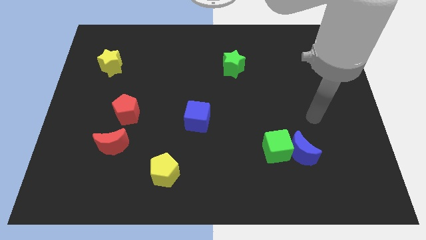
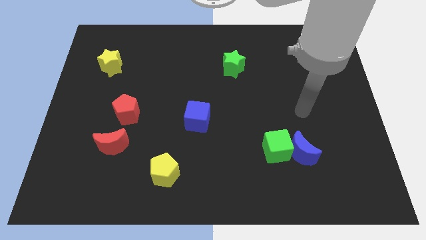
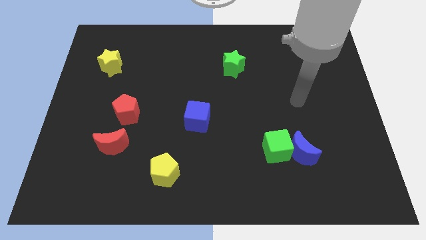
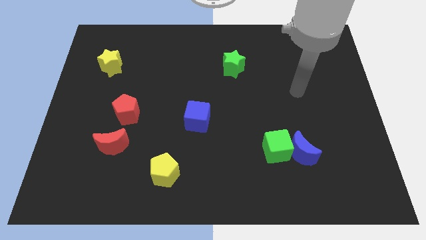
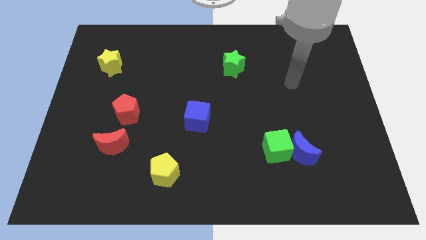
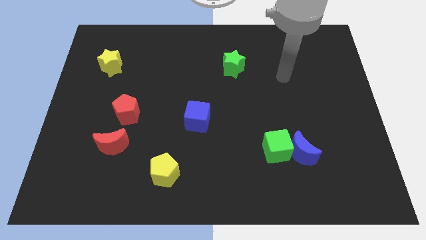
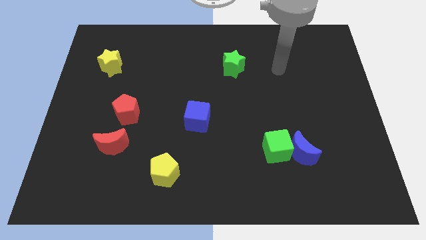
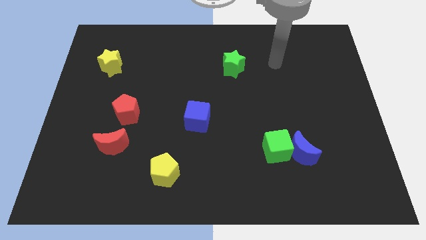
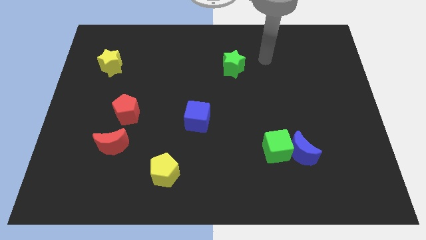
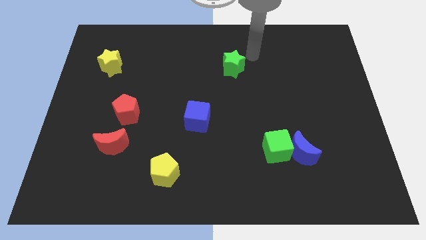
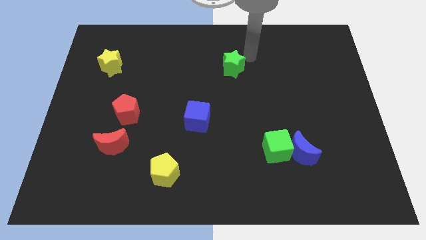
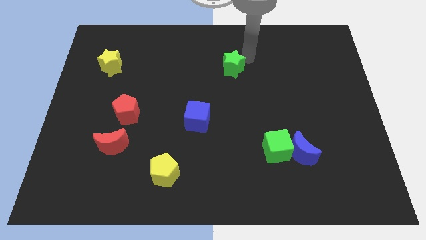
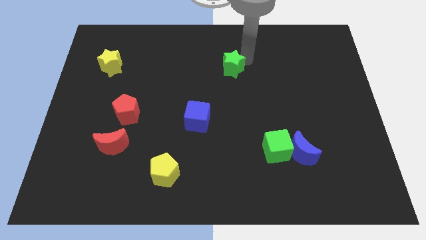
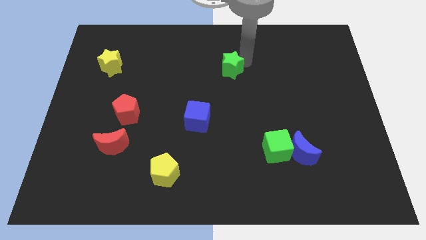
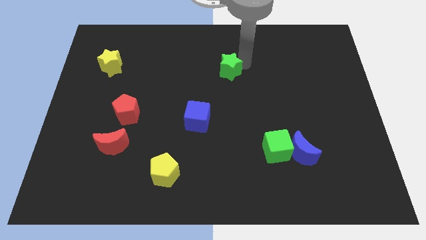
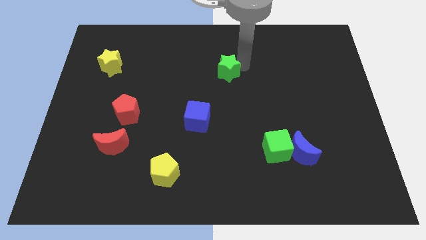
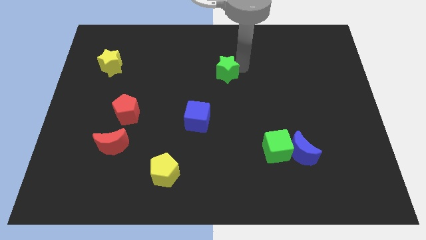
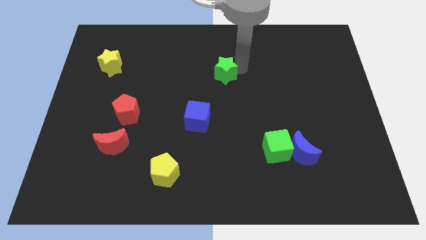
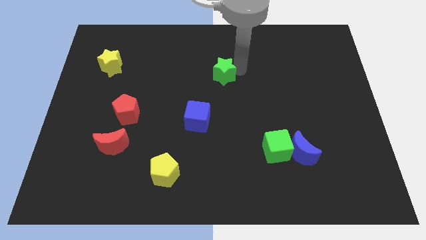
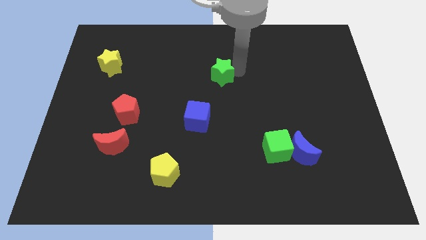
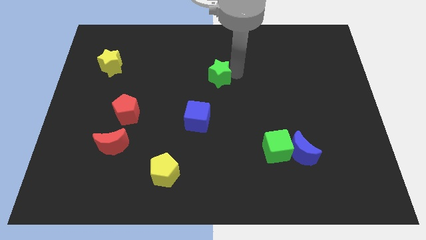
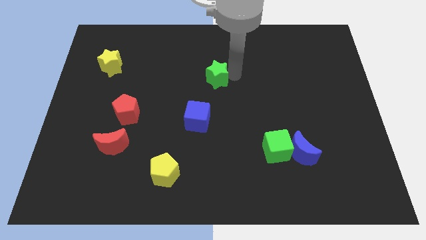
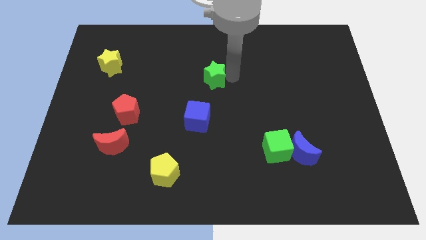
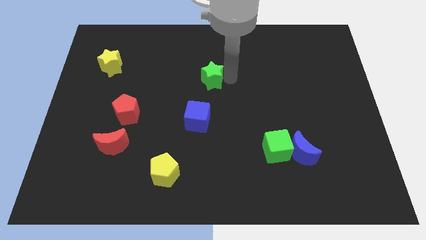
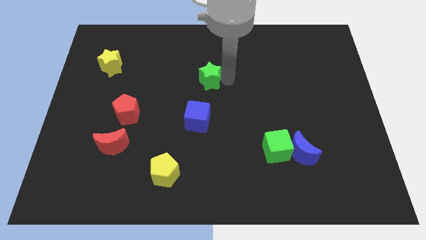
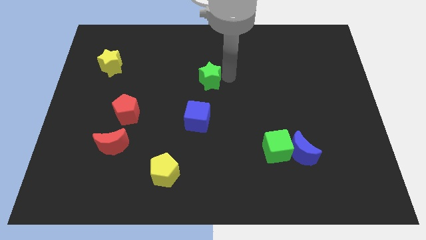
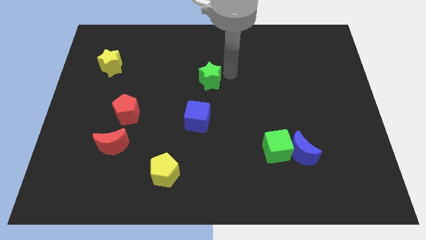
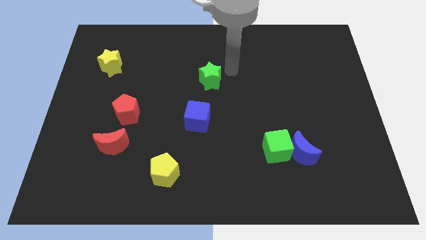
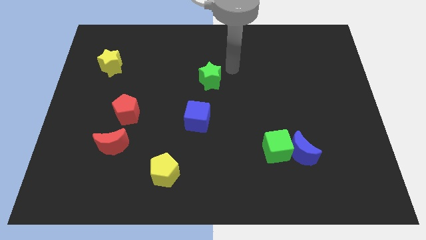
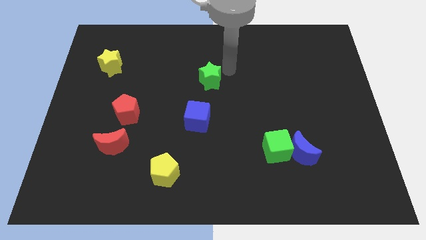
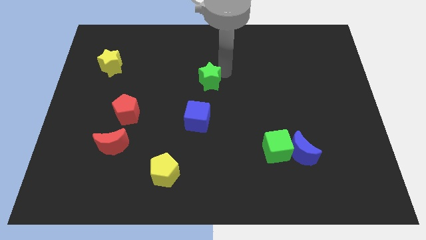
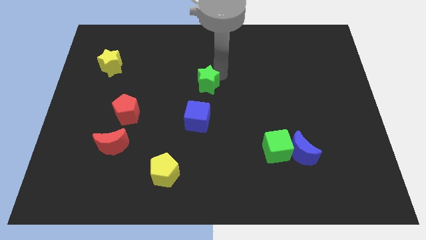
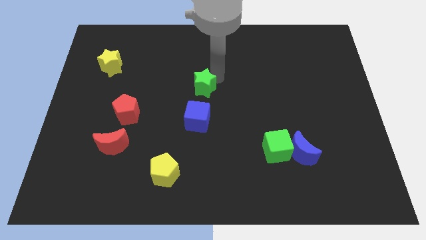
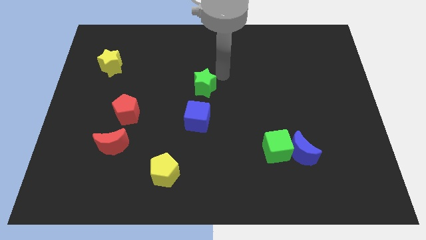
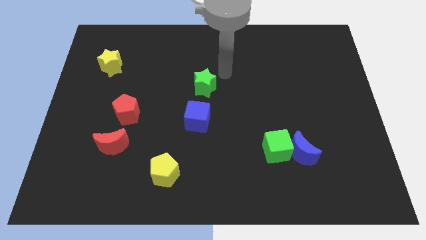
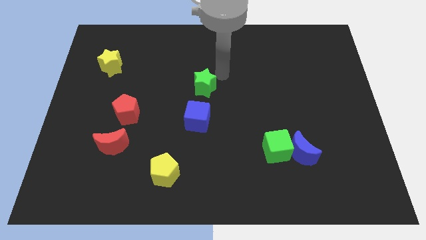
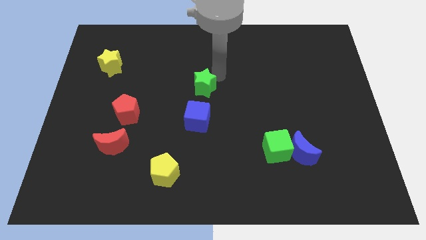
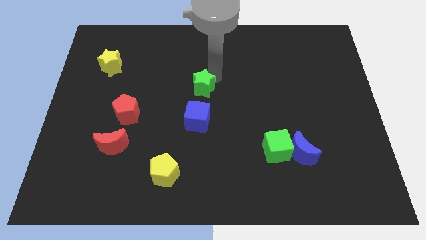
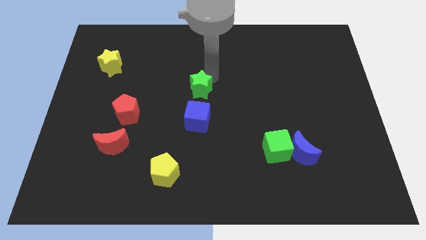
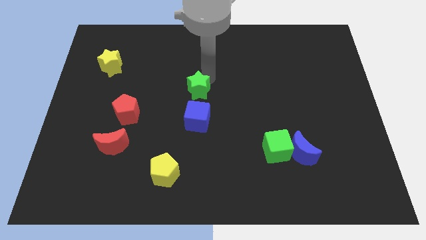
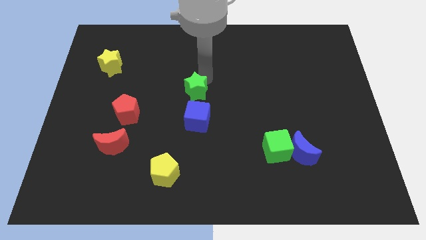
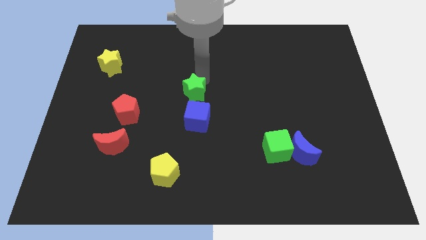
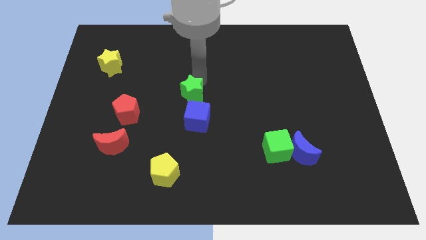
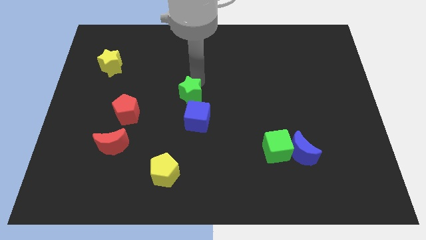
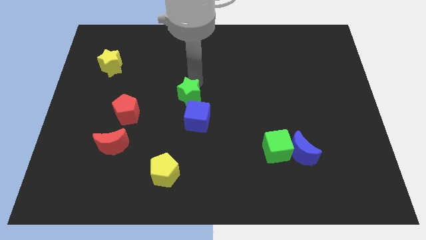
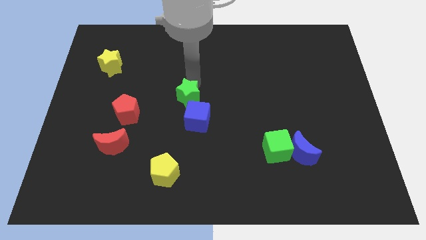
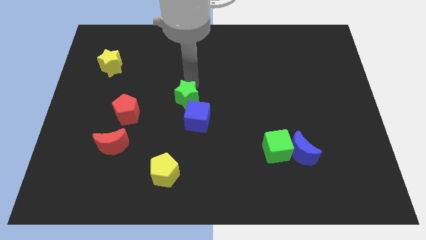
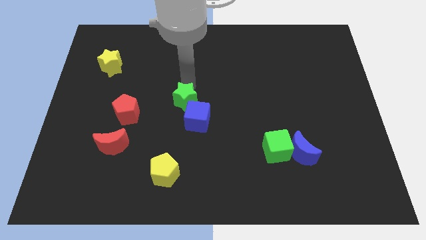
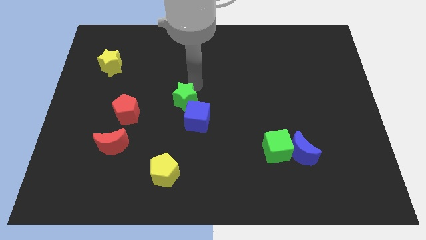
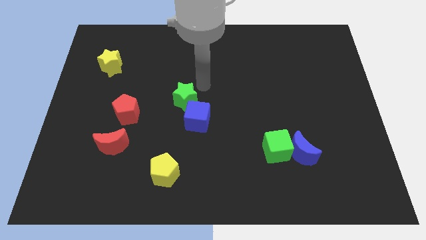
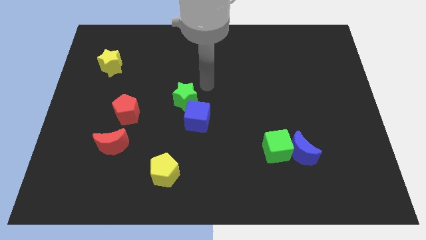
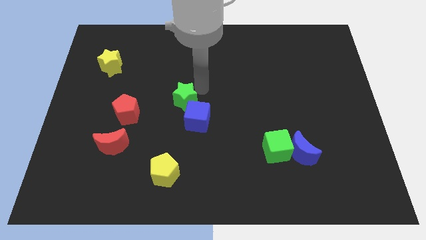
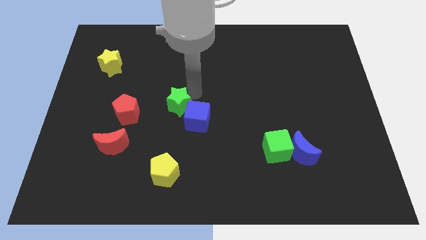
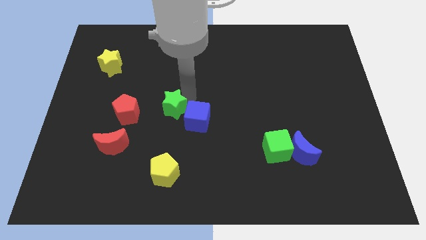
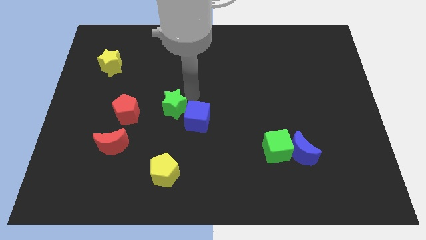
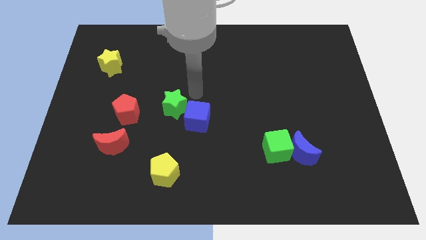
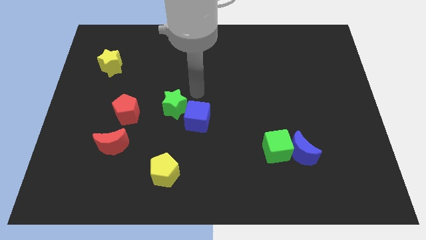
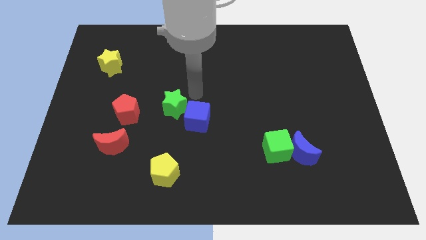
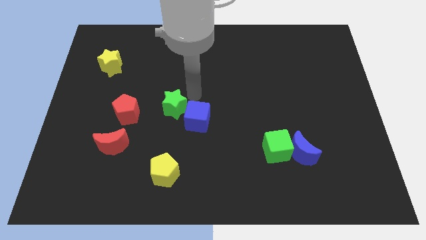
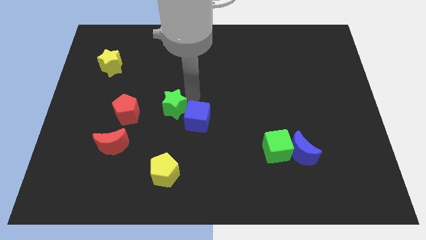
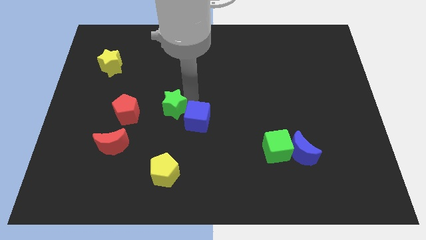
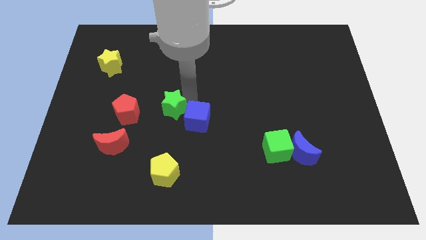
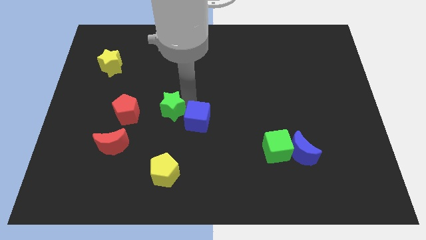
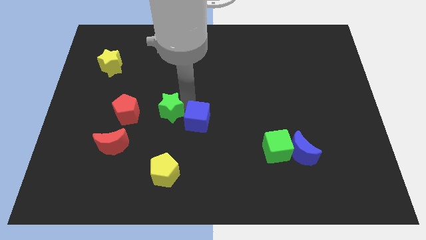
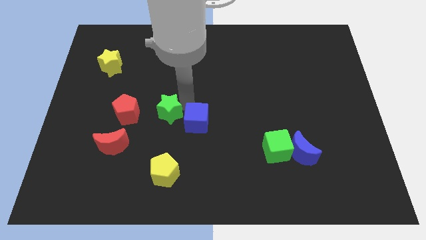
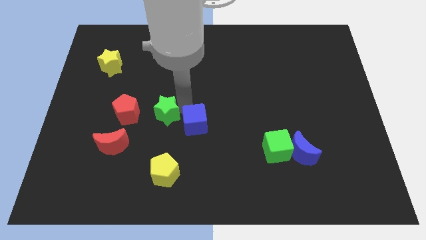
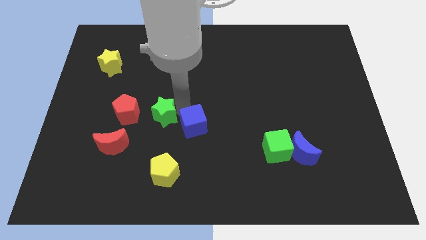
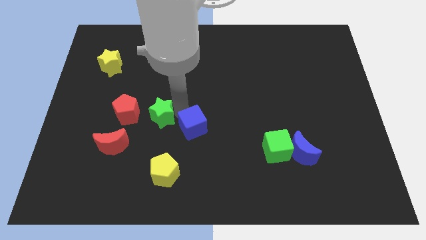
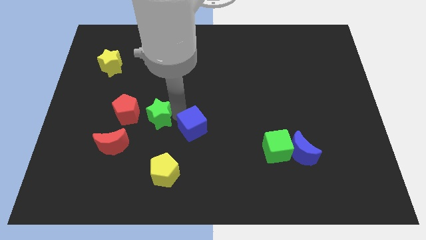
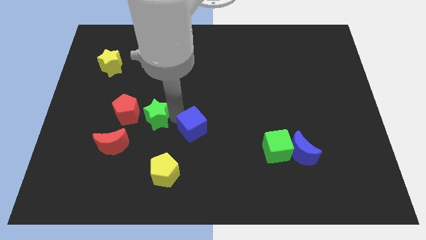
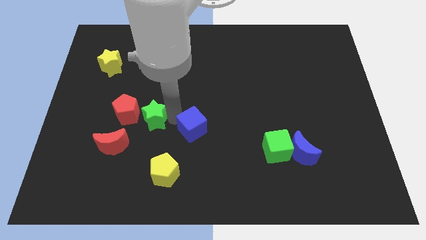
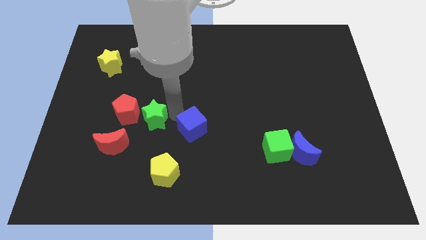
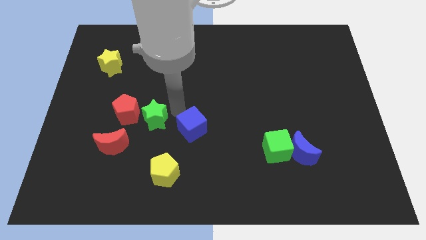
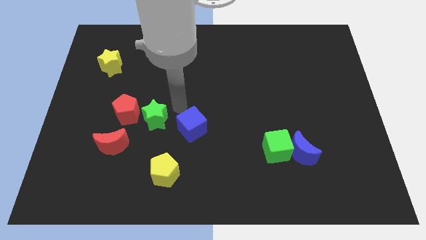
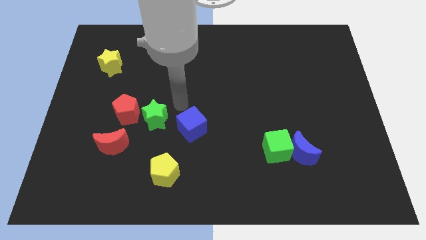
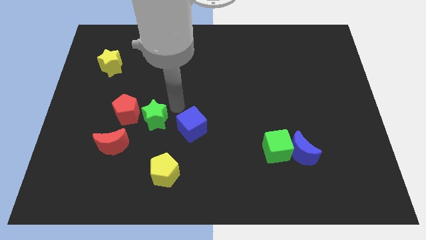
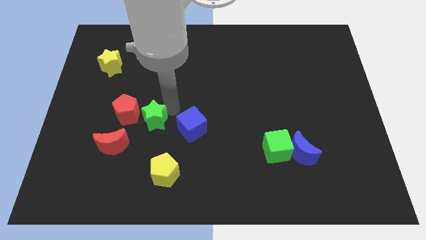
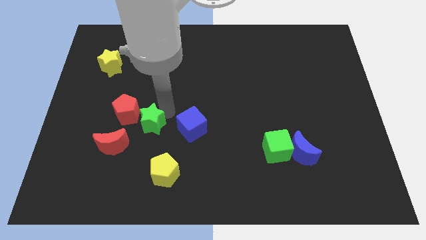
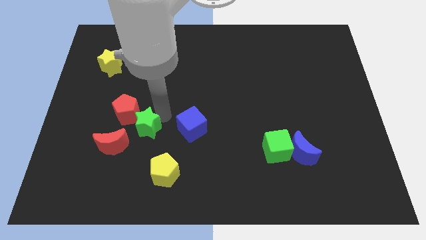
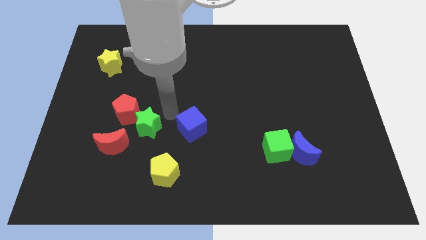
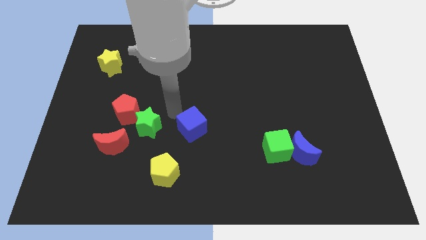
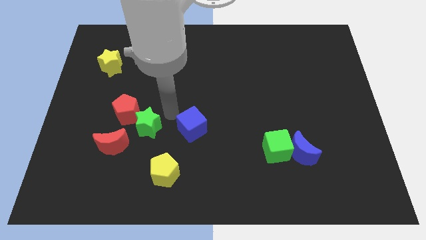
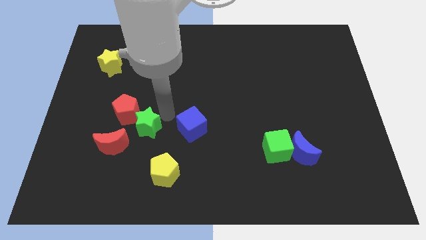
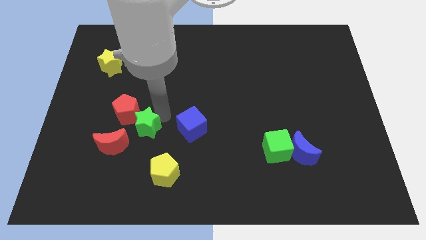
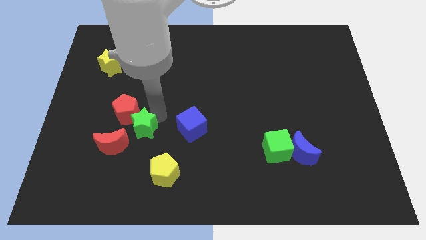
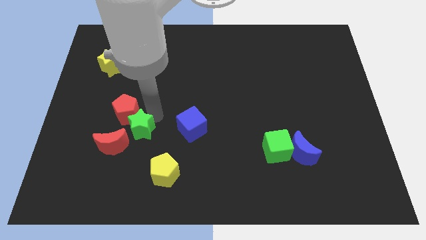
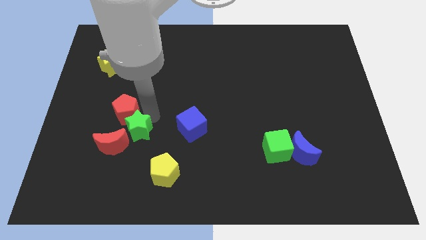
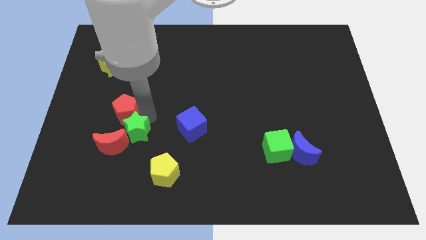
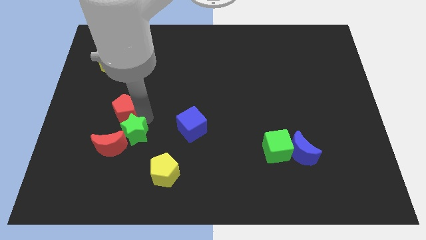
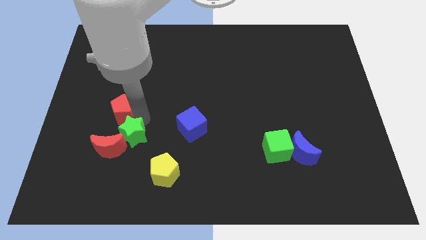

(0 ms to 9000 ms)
move the green star next to the red moon
